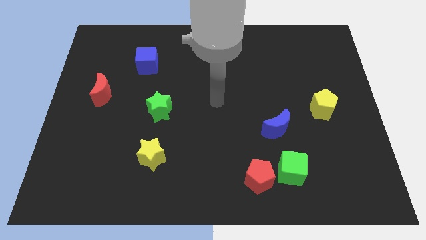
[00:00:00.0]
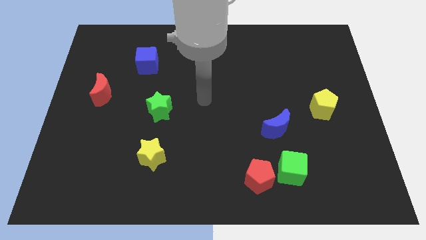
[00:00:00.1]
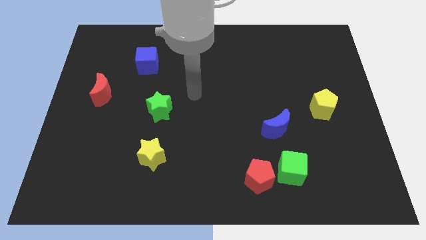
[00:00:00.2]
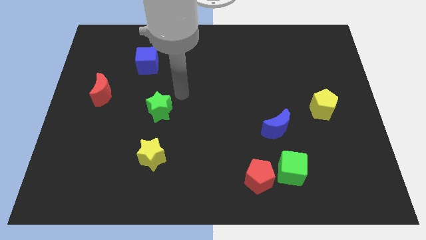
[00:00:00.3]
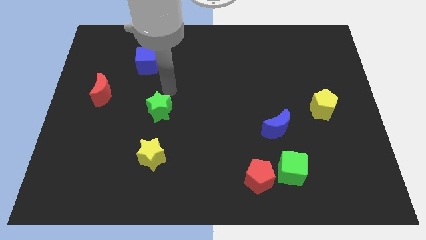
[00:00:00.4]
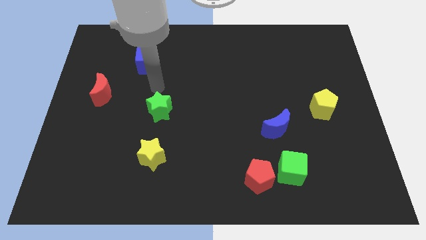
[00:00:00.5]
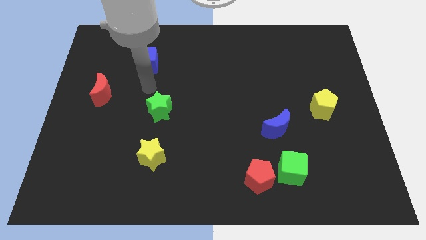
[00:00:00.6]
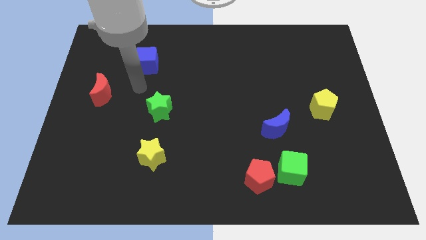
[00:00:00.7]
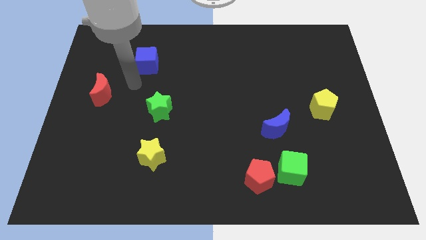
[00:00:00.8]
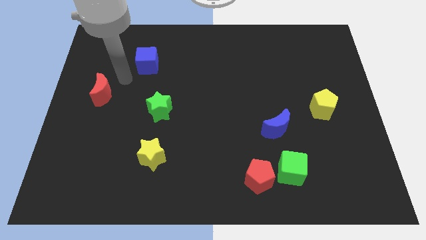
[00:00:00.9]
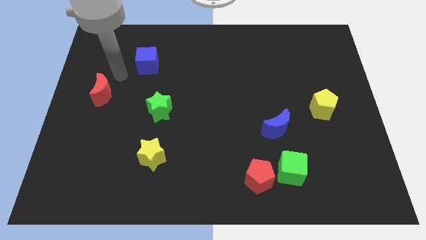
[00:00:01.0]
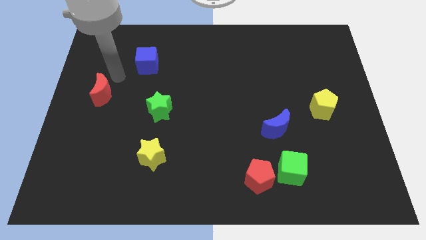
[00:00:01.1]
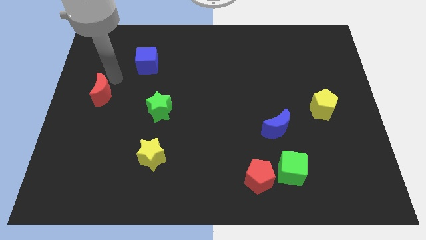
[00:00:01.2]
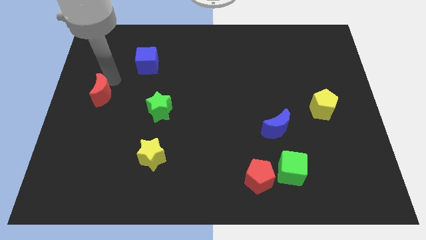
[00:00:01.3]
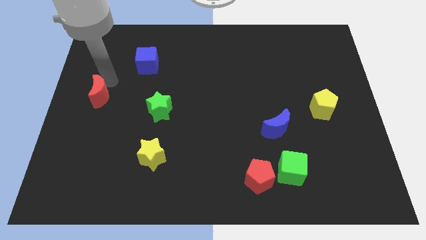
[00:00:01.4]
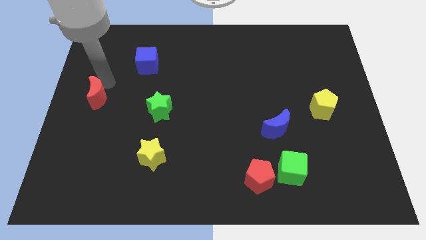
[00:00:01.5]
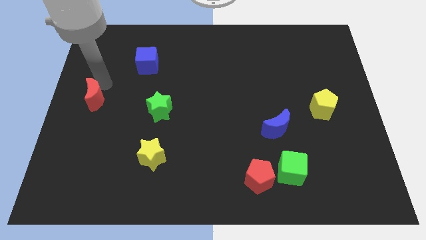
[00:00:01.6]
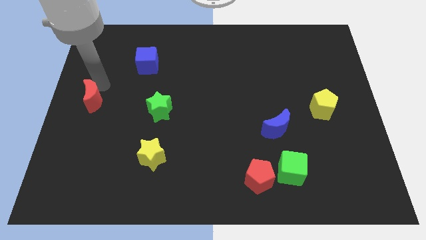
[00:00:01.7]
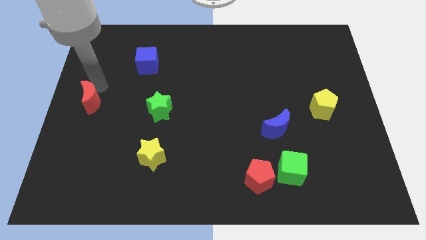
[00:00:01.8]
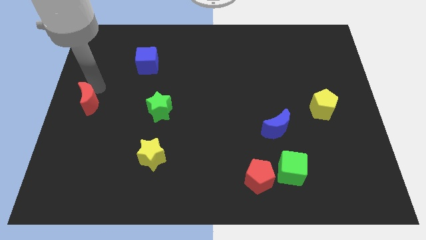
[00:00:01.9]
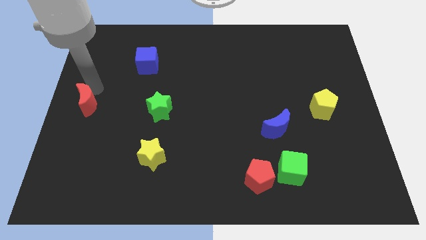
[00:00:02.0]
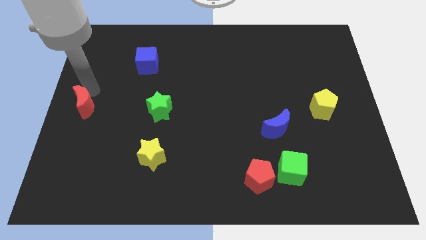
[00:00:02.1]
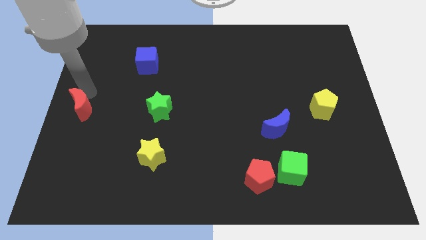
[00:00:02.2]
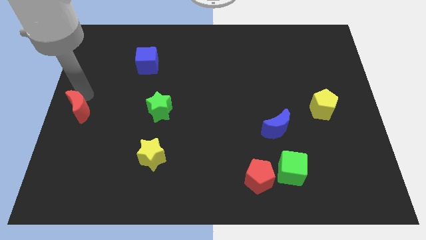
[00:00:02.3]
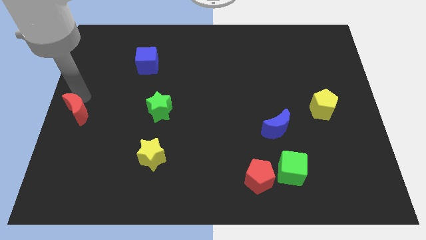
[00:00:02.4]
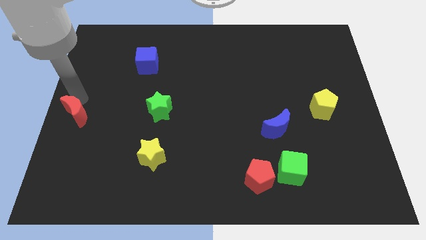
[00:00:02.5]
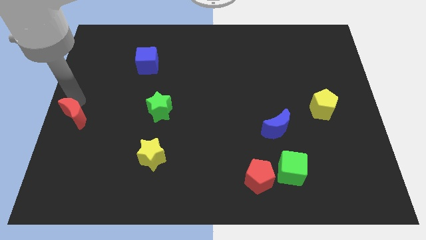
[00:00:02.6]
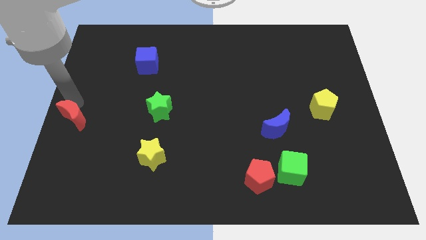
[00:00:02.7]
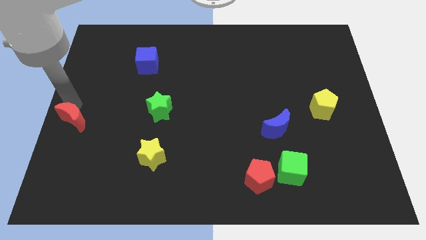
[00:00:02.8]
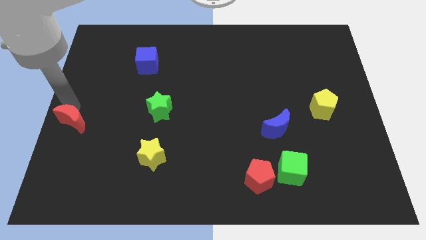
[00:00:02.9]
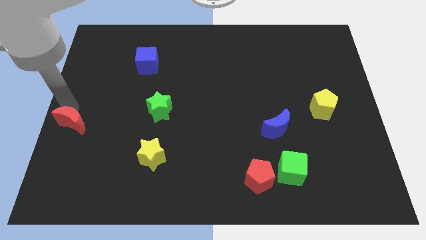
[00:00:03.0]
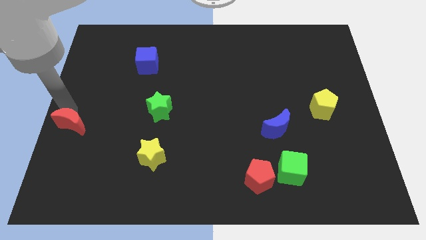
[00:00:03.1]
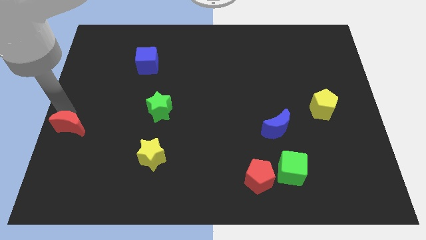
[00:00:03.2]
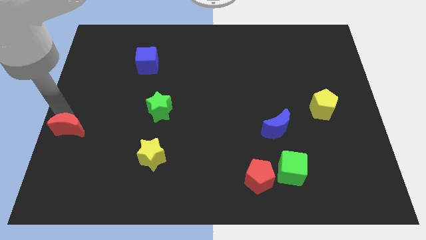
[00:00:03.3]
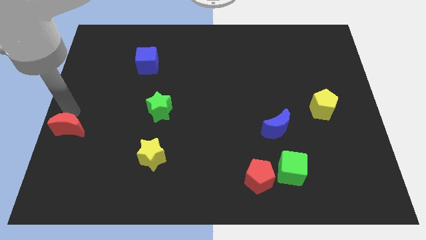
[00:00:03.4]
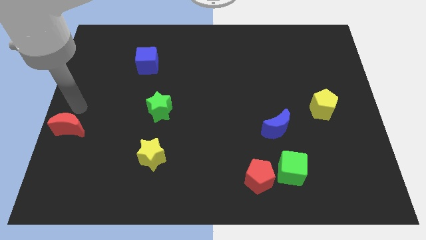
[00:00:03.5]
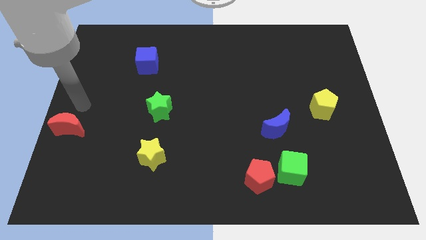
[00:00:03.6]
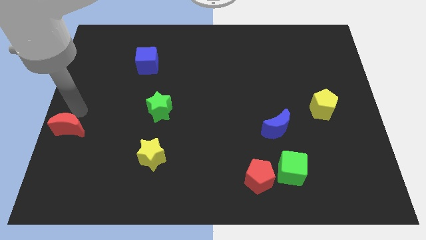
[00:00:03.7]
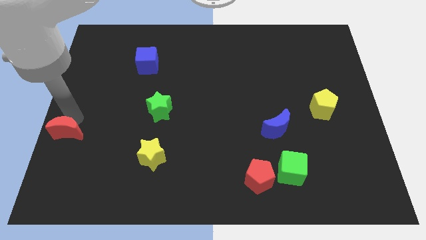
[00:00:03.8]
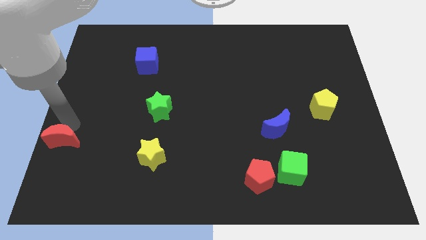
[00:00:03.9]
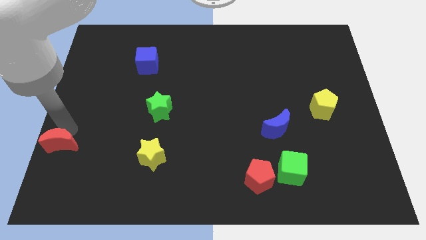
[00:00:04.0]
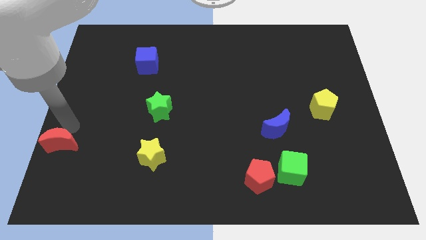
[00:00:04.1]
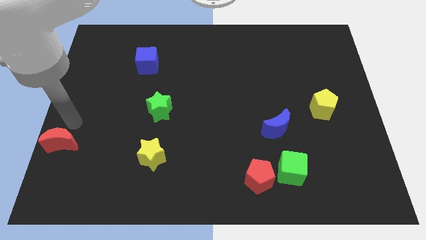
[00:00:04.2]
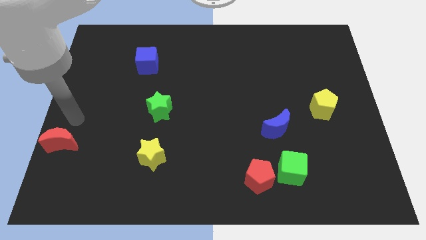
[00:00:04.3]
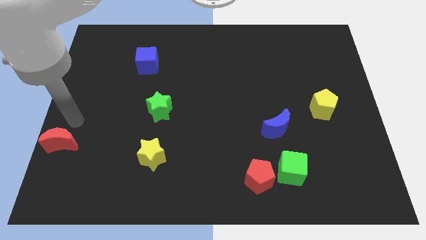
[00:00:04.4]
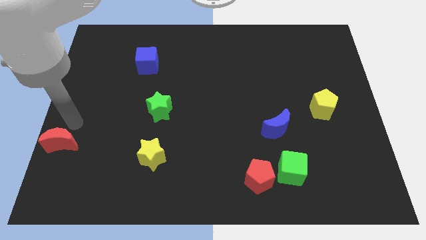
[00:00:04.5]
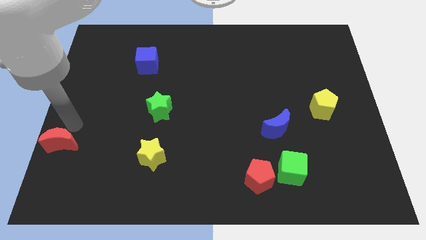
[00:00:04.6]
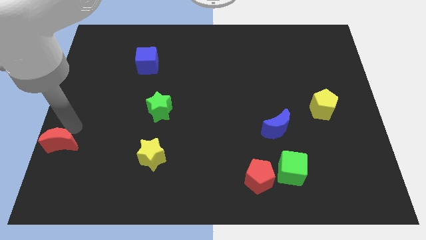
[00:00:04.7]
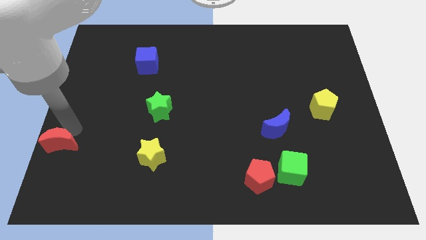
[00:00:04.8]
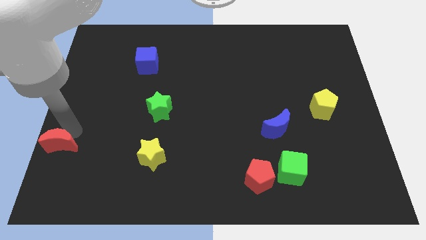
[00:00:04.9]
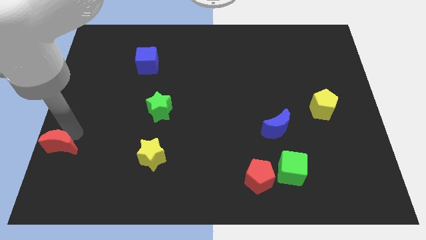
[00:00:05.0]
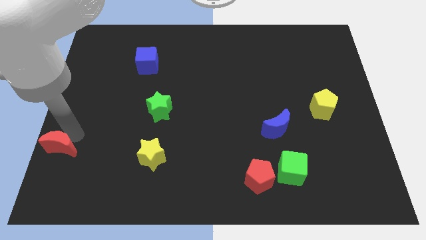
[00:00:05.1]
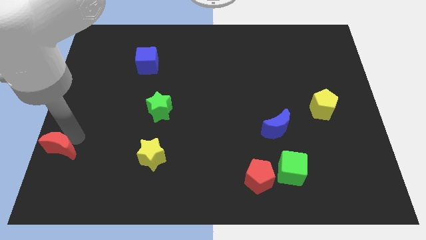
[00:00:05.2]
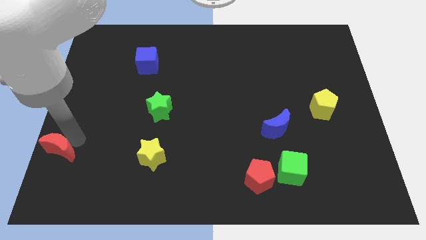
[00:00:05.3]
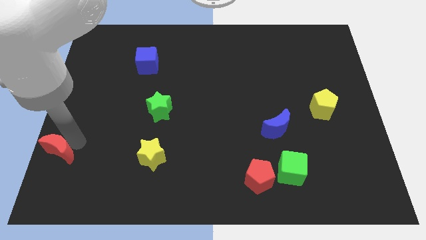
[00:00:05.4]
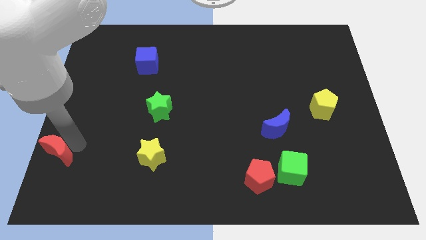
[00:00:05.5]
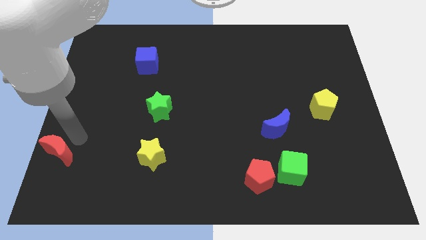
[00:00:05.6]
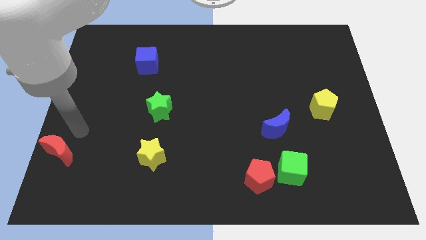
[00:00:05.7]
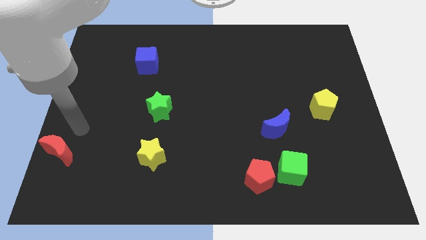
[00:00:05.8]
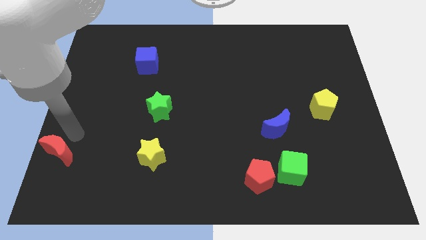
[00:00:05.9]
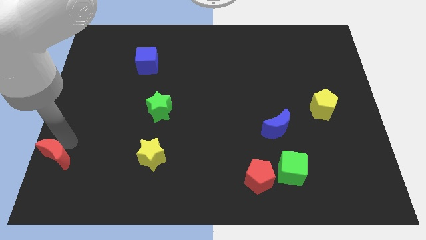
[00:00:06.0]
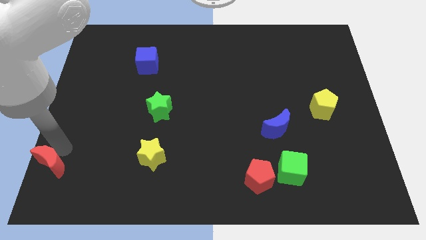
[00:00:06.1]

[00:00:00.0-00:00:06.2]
slide the red moon to the bottom left corner

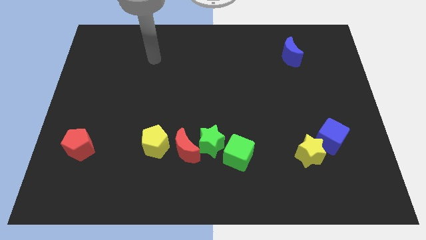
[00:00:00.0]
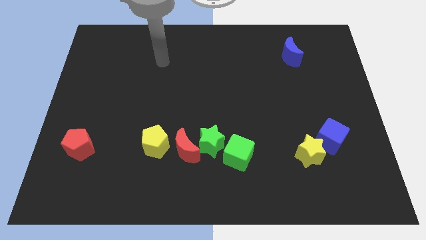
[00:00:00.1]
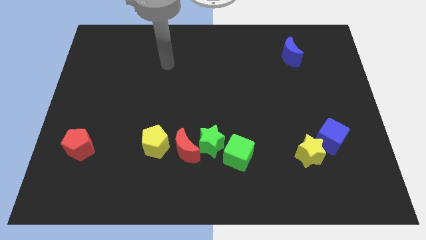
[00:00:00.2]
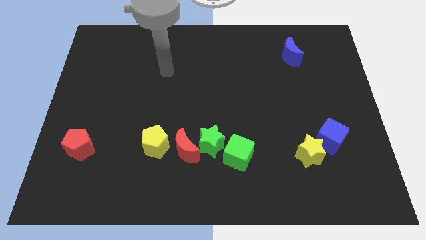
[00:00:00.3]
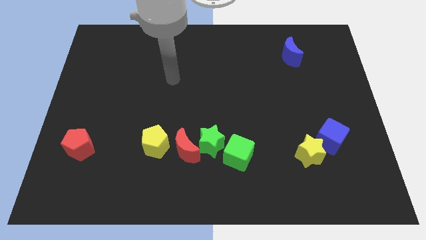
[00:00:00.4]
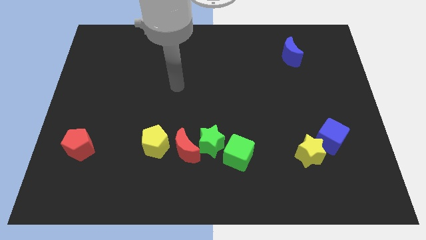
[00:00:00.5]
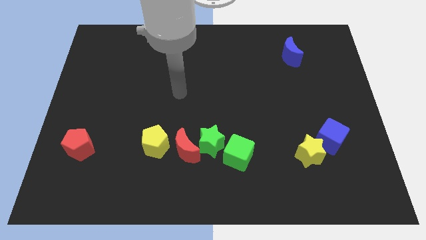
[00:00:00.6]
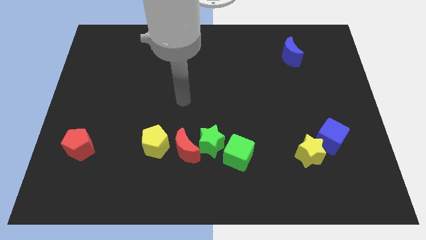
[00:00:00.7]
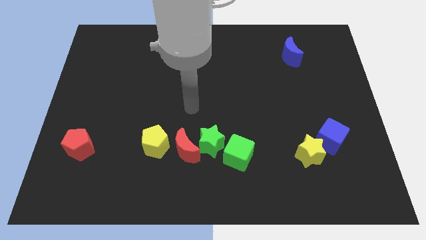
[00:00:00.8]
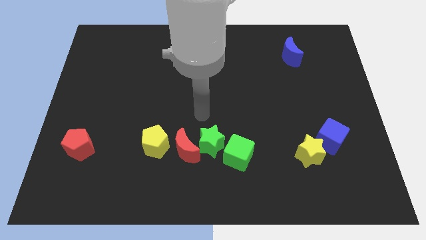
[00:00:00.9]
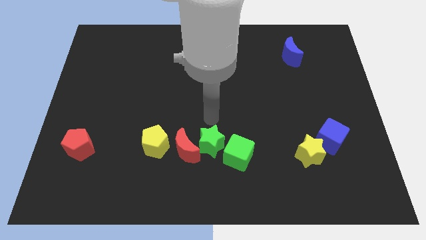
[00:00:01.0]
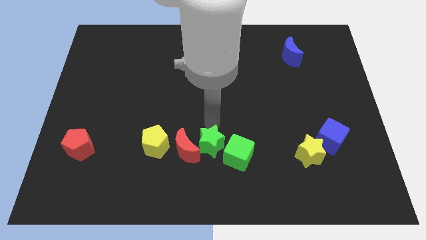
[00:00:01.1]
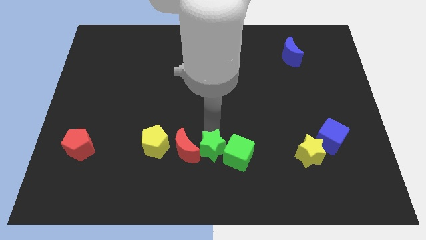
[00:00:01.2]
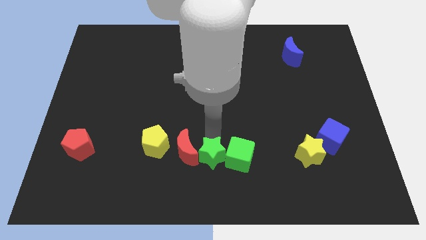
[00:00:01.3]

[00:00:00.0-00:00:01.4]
push the green star to the bottom
